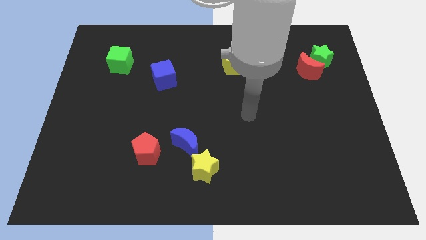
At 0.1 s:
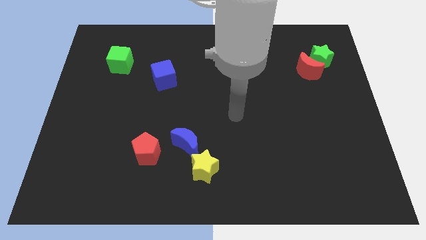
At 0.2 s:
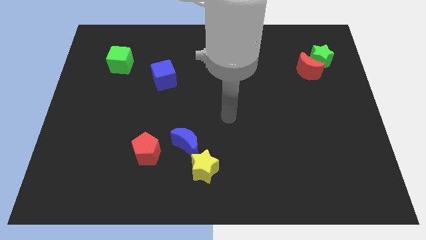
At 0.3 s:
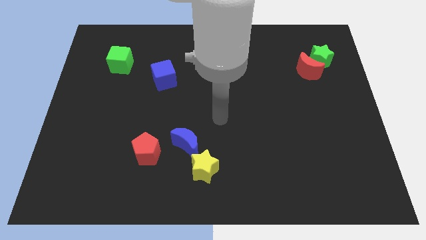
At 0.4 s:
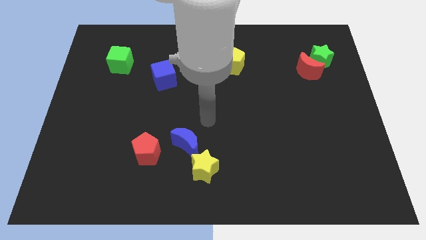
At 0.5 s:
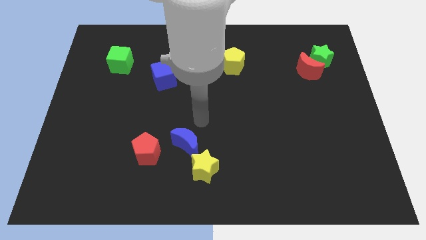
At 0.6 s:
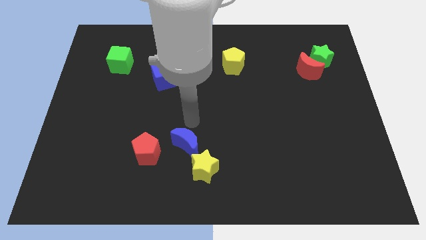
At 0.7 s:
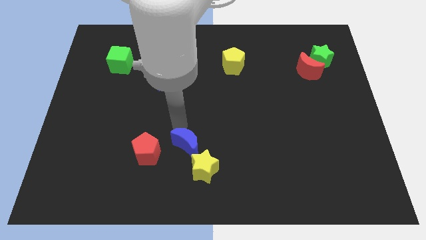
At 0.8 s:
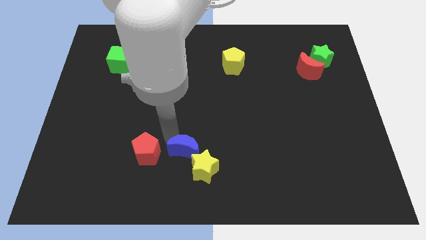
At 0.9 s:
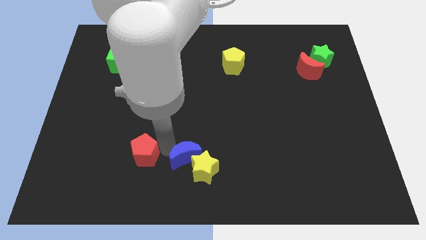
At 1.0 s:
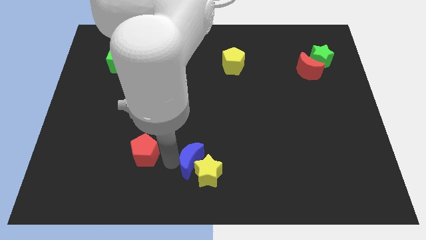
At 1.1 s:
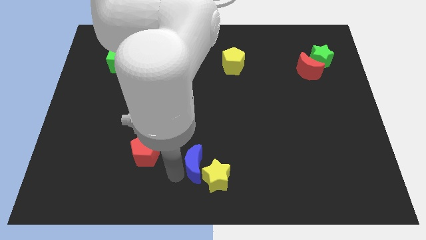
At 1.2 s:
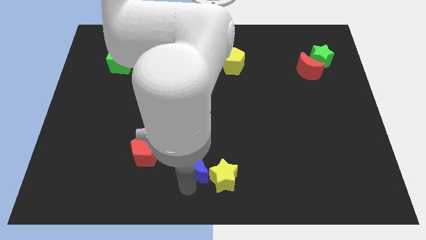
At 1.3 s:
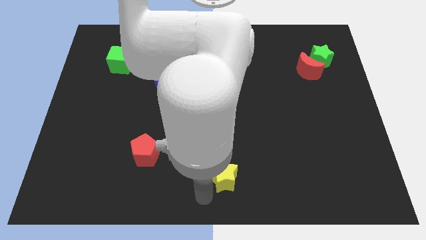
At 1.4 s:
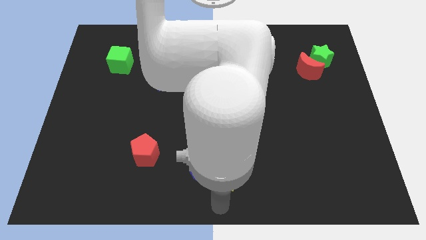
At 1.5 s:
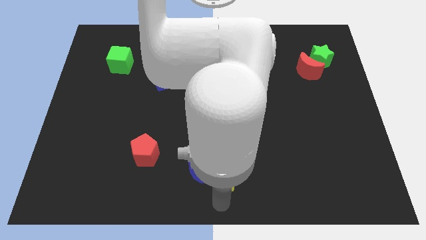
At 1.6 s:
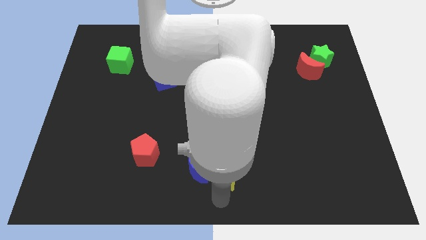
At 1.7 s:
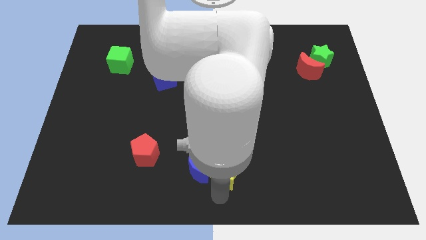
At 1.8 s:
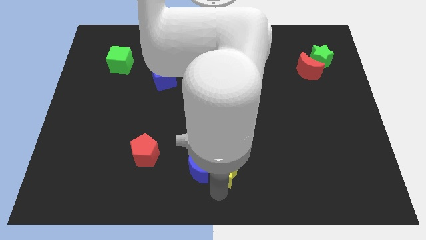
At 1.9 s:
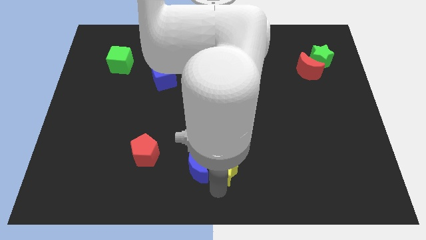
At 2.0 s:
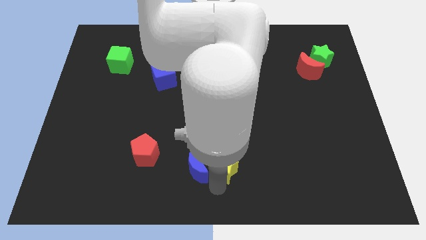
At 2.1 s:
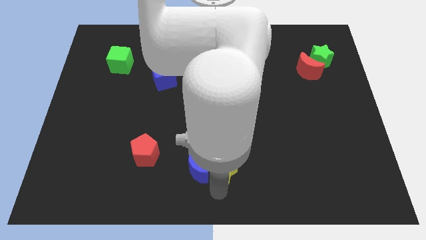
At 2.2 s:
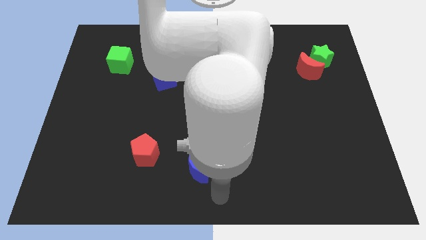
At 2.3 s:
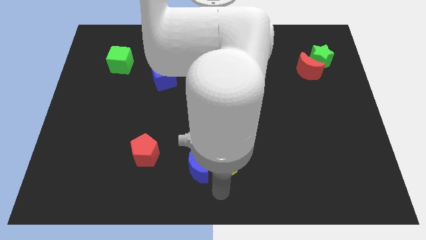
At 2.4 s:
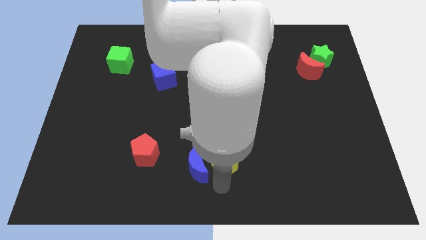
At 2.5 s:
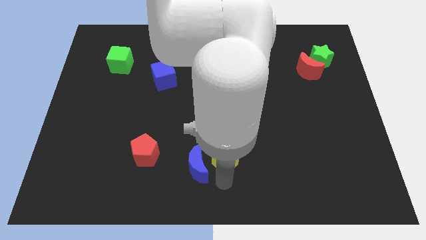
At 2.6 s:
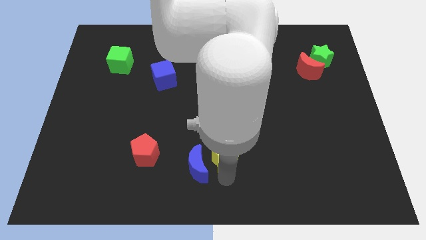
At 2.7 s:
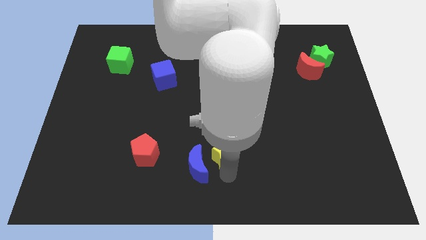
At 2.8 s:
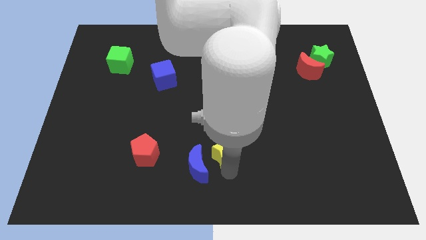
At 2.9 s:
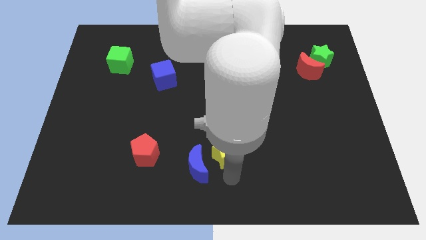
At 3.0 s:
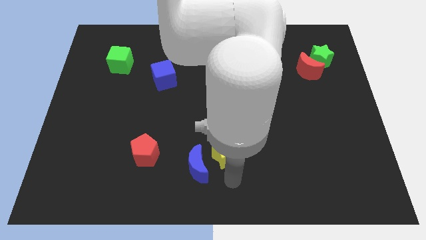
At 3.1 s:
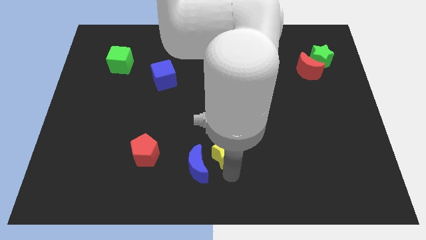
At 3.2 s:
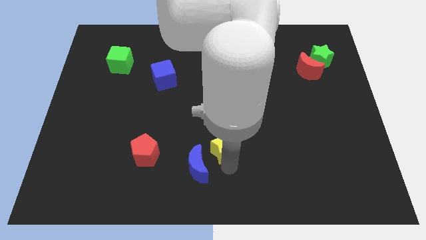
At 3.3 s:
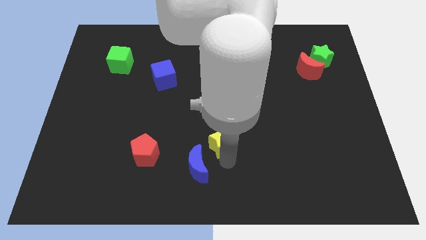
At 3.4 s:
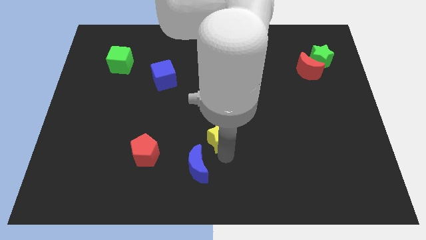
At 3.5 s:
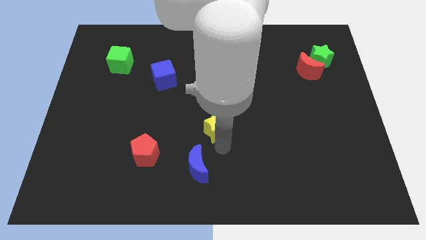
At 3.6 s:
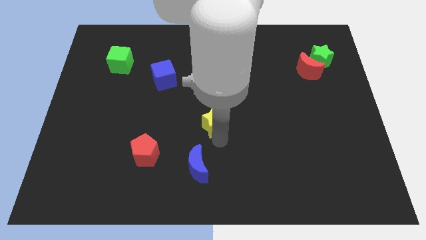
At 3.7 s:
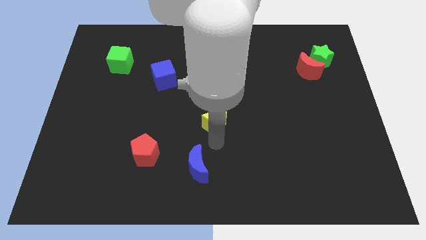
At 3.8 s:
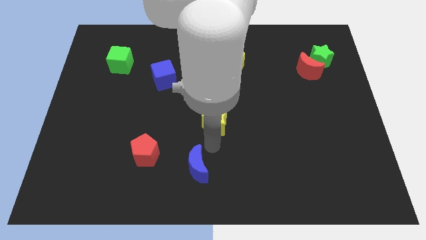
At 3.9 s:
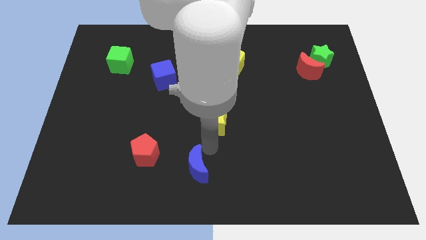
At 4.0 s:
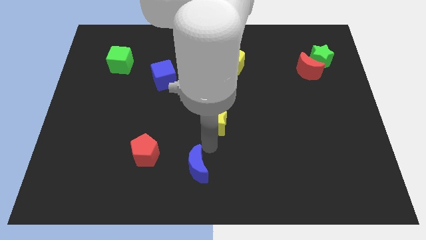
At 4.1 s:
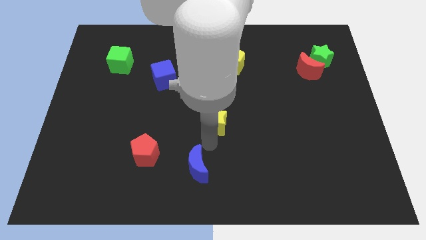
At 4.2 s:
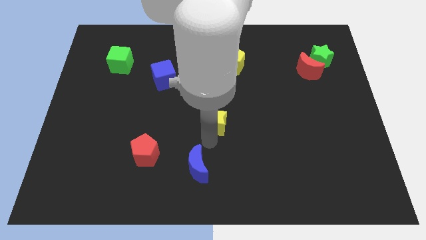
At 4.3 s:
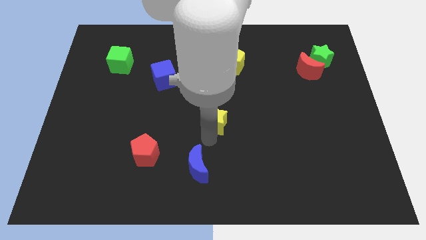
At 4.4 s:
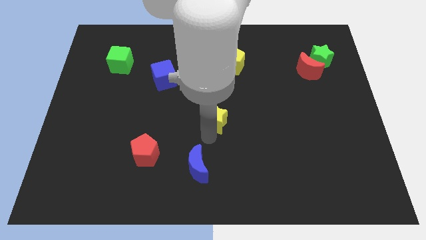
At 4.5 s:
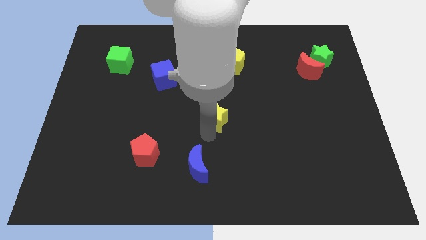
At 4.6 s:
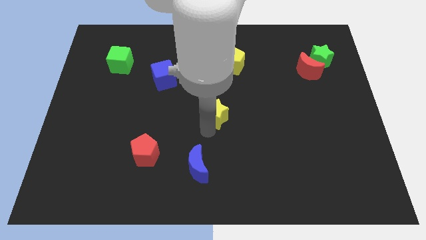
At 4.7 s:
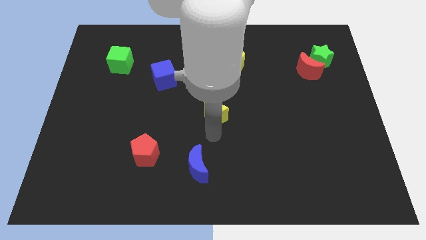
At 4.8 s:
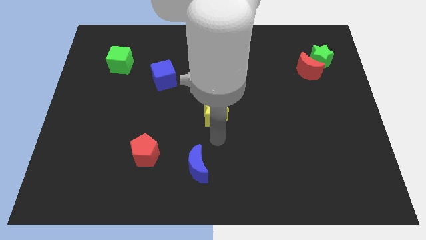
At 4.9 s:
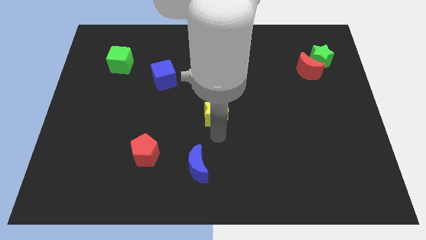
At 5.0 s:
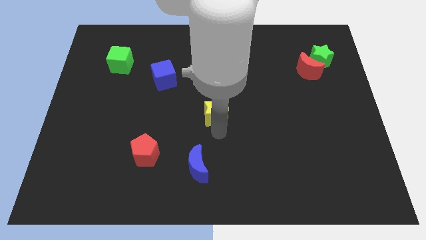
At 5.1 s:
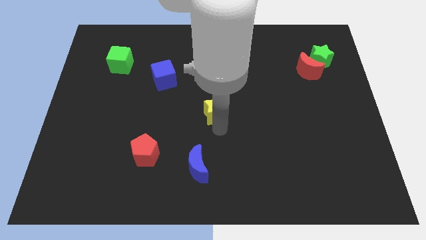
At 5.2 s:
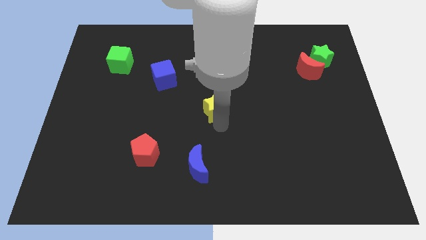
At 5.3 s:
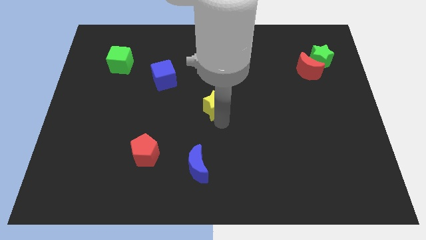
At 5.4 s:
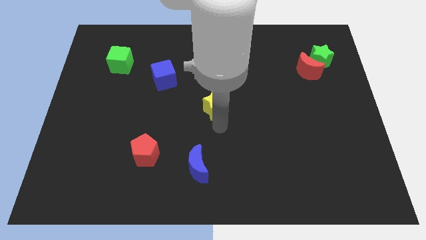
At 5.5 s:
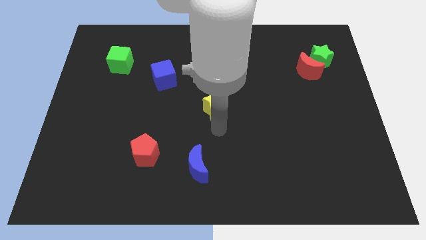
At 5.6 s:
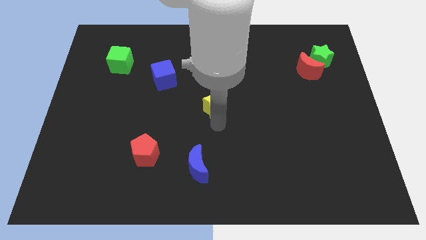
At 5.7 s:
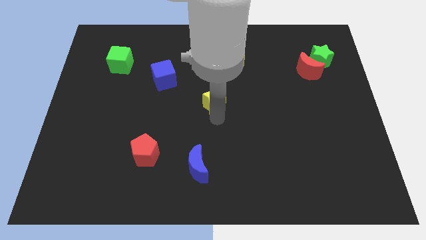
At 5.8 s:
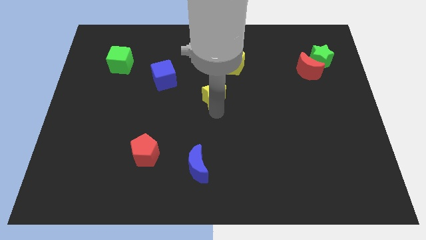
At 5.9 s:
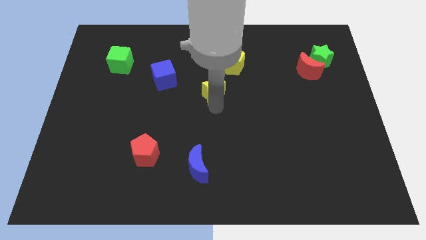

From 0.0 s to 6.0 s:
slide the yellow star upwards

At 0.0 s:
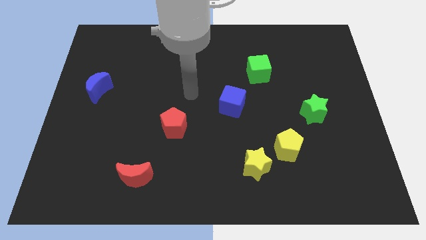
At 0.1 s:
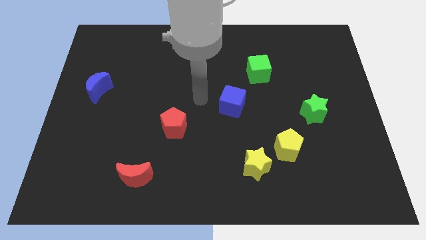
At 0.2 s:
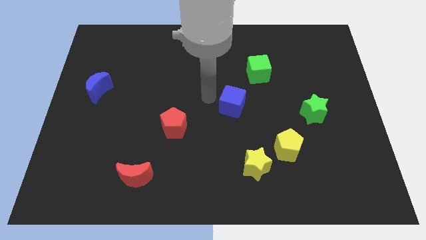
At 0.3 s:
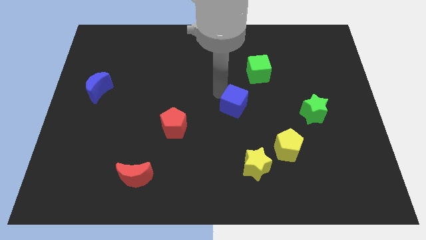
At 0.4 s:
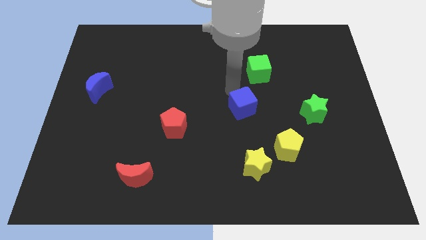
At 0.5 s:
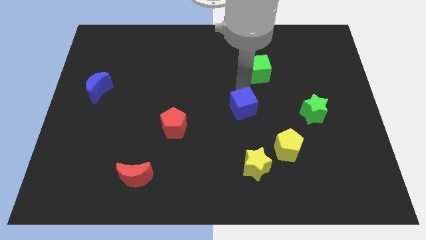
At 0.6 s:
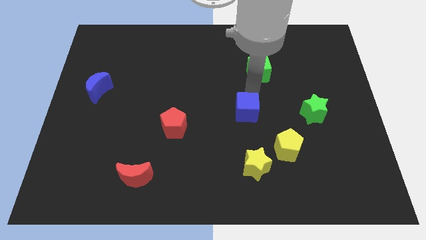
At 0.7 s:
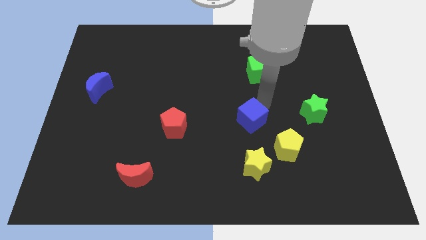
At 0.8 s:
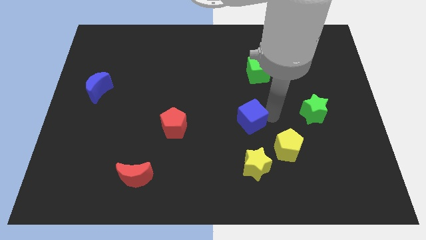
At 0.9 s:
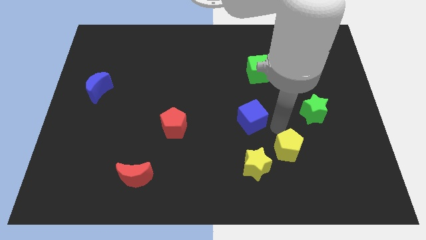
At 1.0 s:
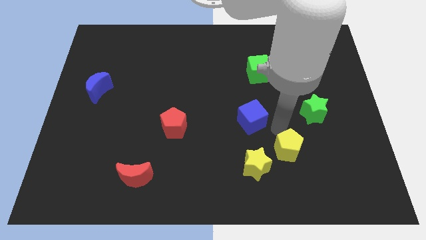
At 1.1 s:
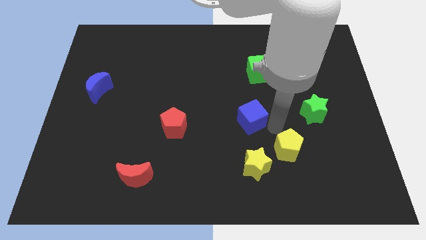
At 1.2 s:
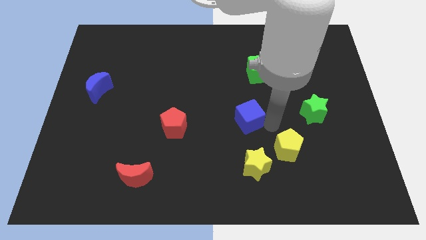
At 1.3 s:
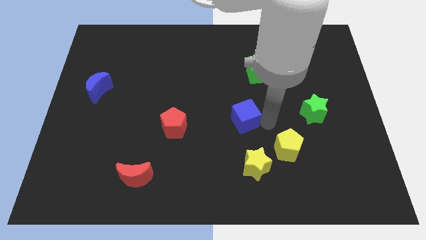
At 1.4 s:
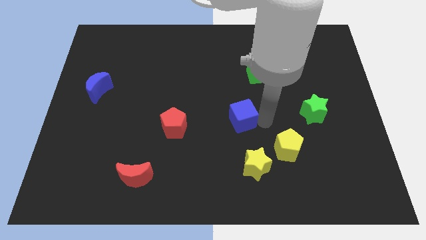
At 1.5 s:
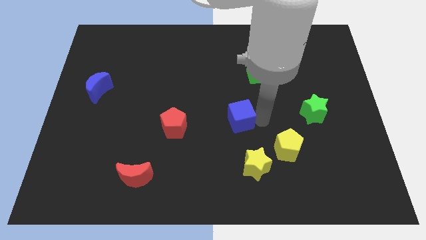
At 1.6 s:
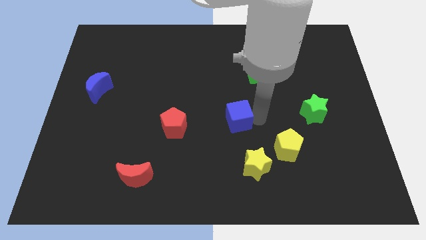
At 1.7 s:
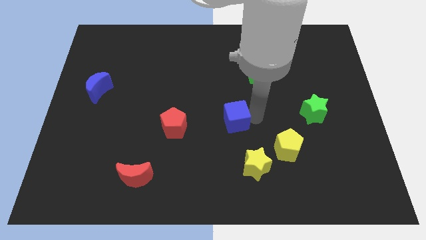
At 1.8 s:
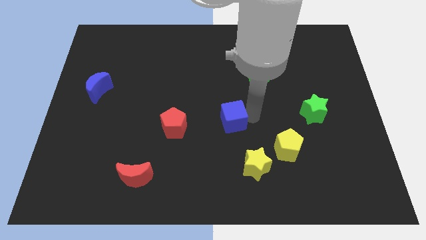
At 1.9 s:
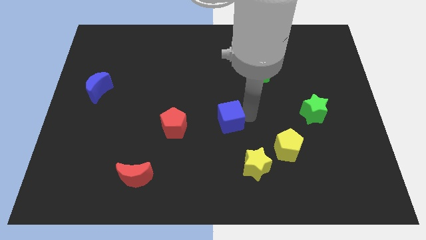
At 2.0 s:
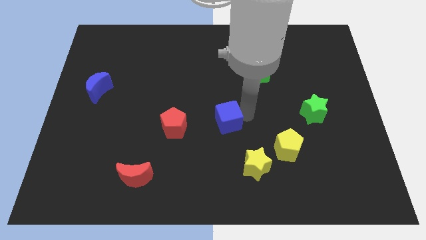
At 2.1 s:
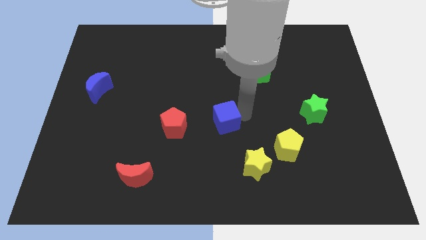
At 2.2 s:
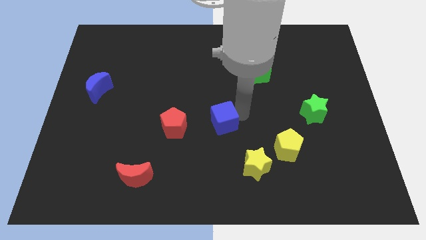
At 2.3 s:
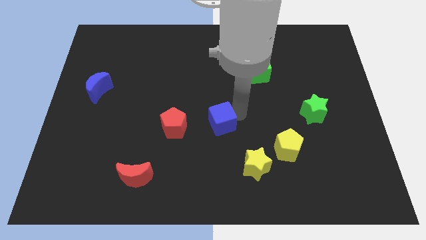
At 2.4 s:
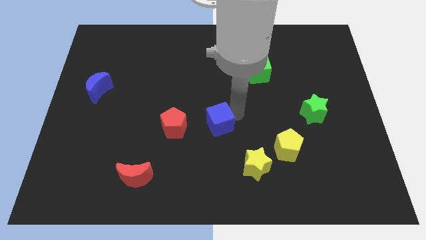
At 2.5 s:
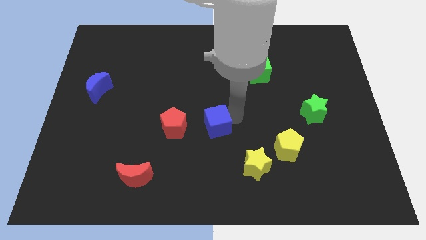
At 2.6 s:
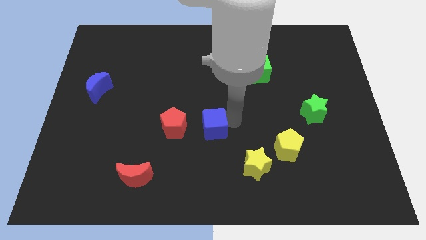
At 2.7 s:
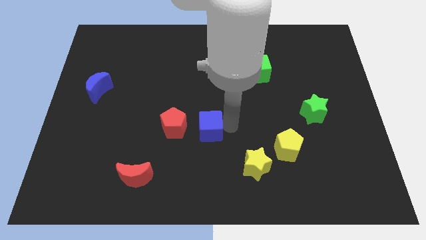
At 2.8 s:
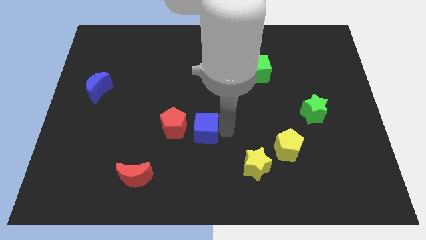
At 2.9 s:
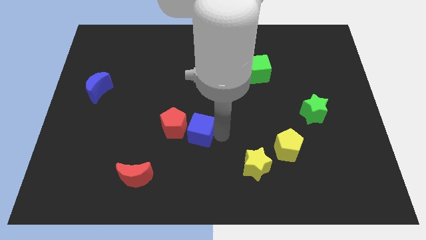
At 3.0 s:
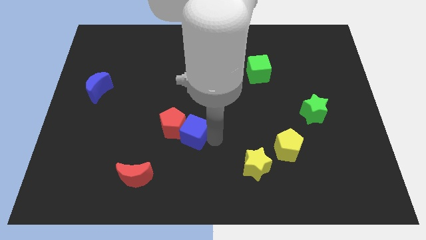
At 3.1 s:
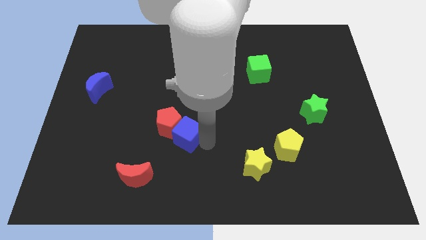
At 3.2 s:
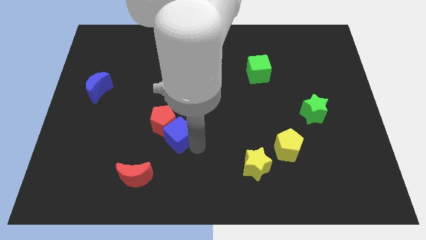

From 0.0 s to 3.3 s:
slightly slide the blue cube to the left
